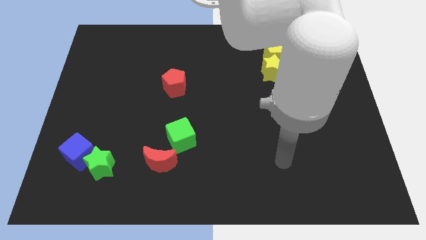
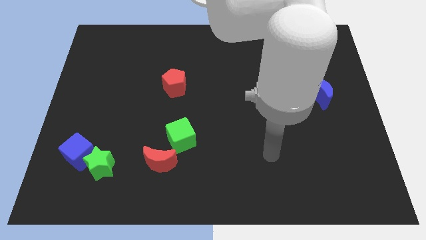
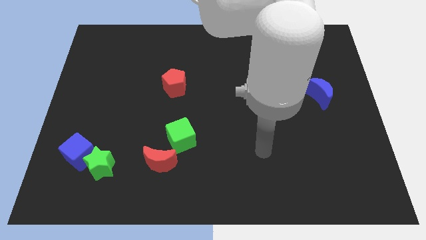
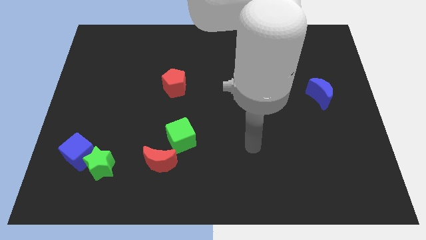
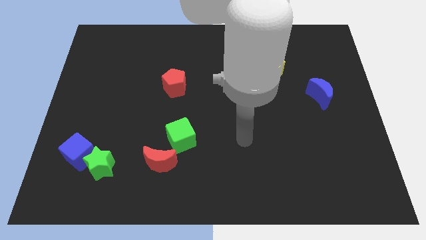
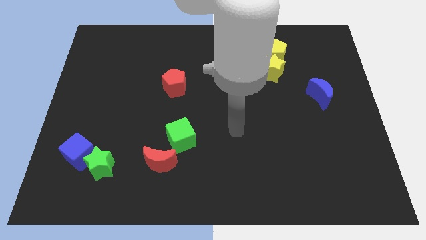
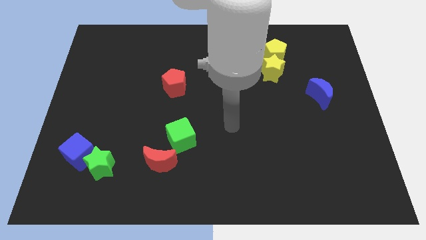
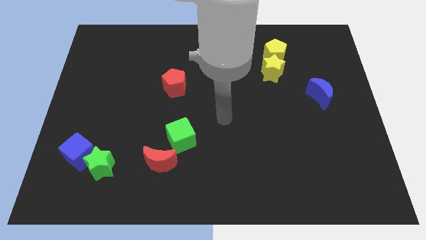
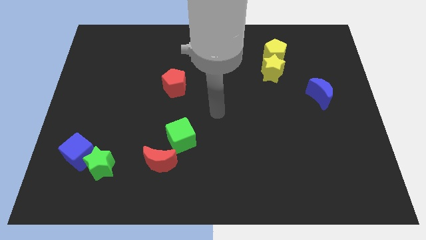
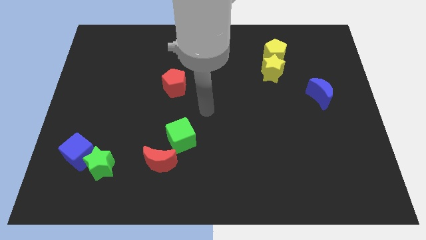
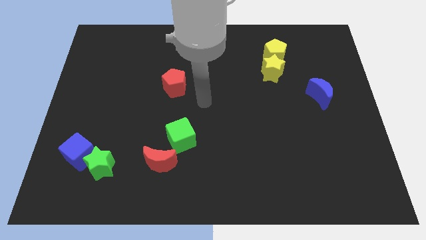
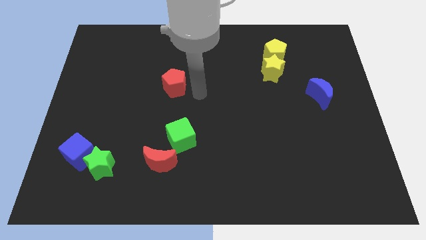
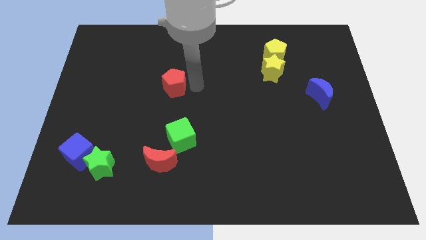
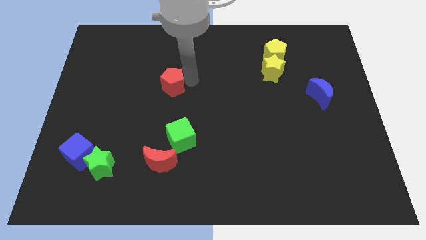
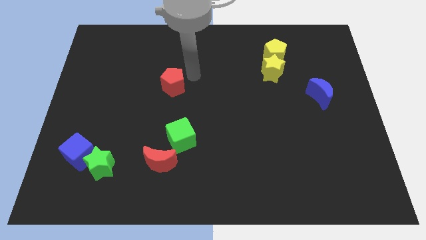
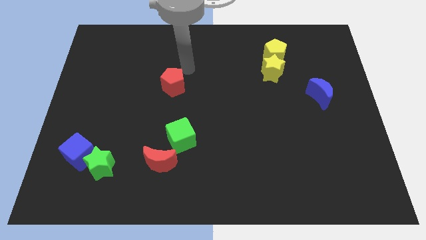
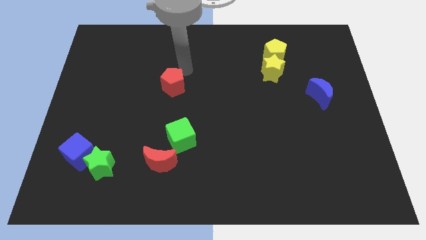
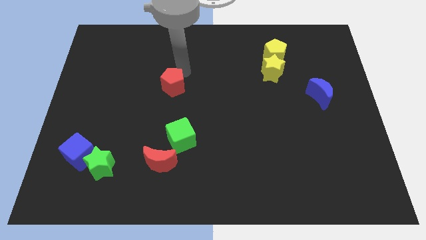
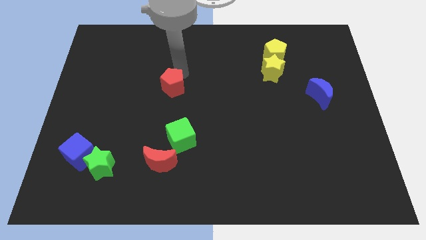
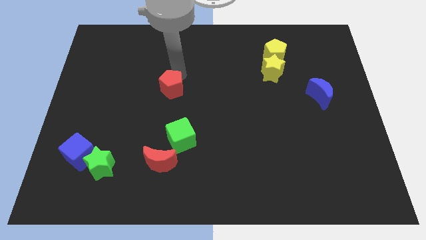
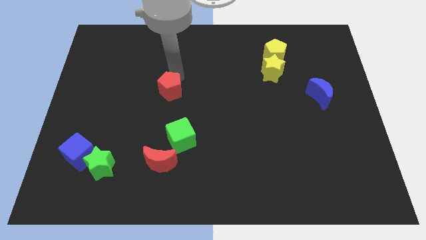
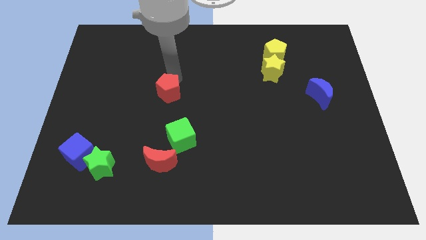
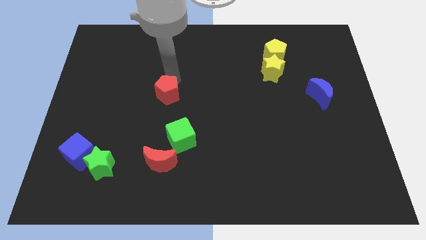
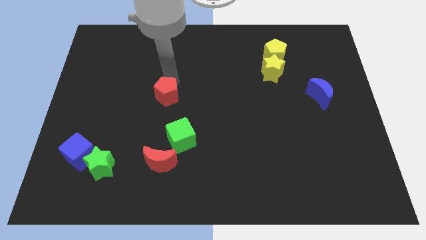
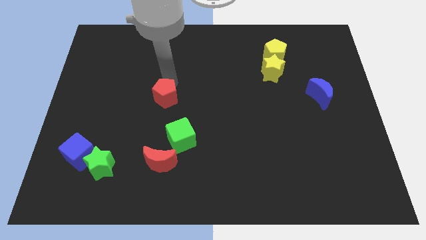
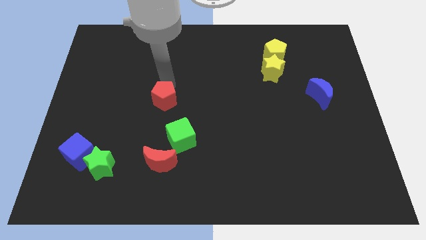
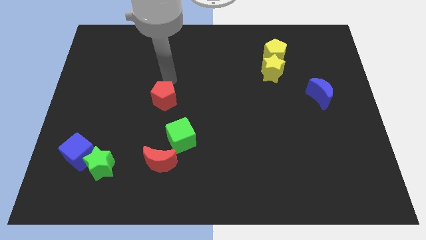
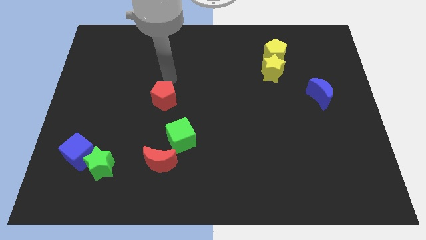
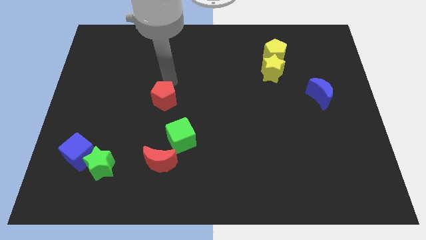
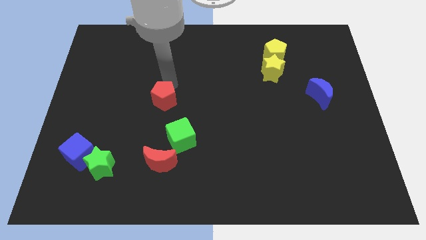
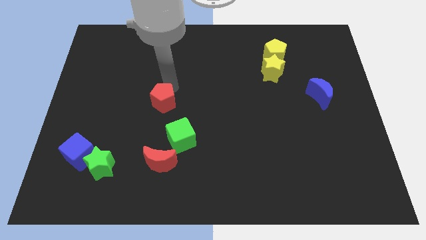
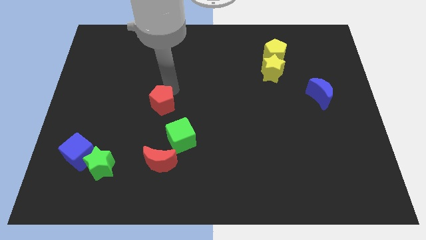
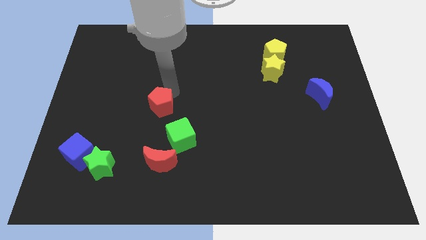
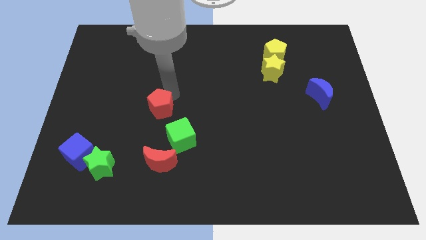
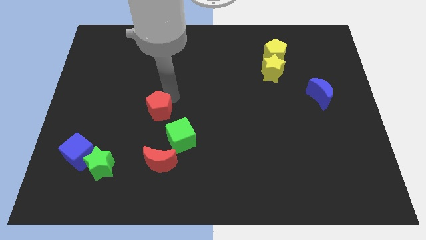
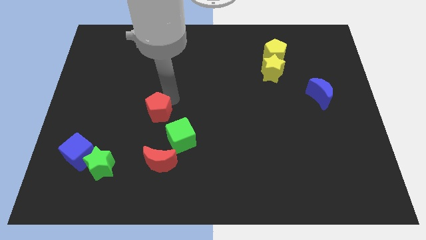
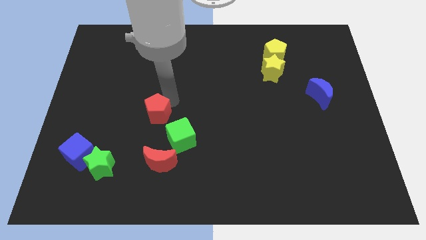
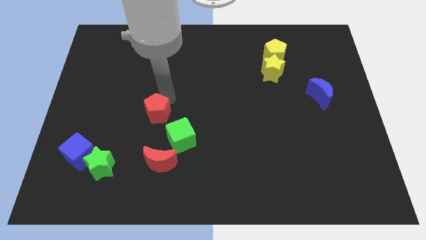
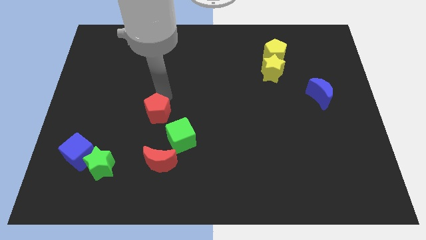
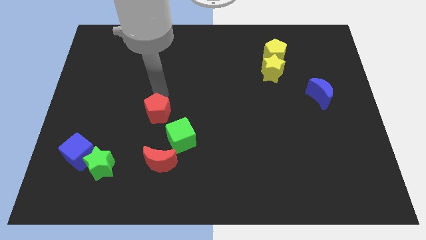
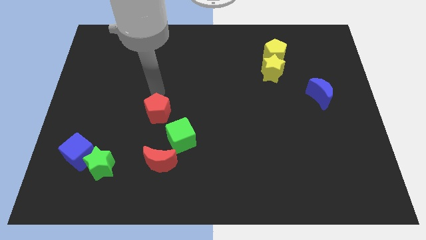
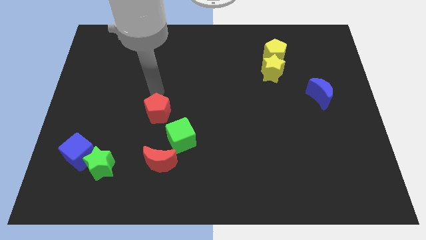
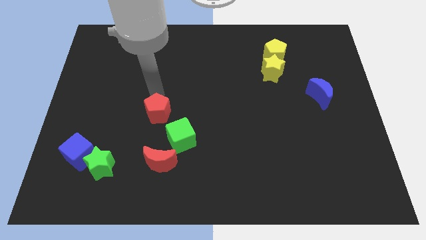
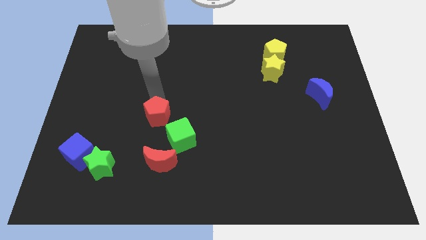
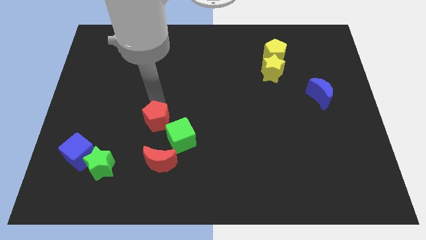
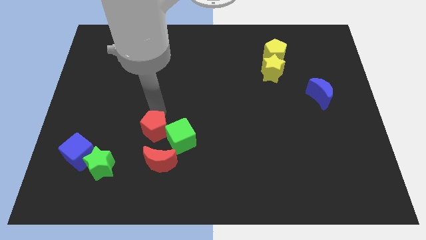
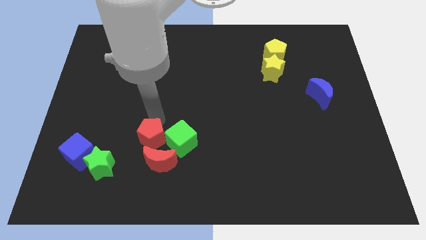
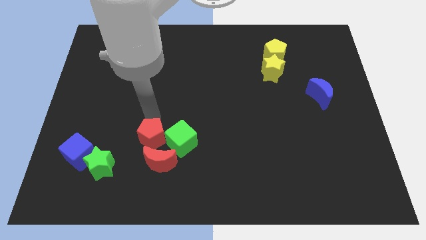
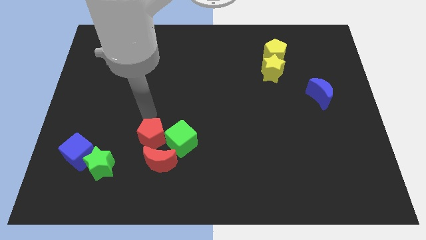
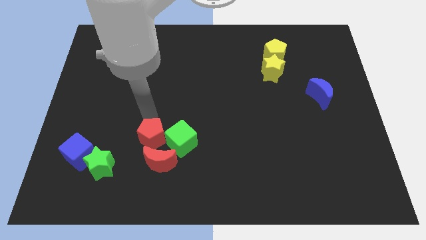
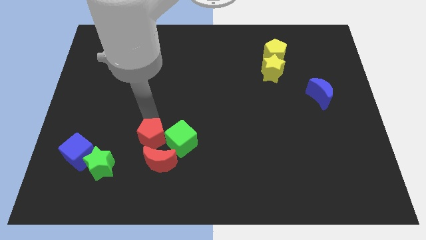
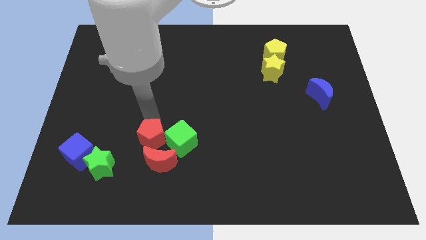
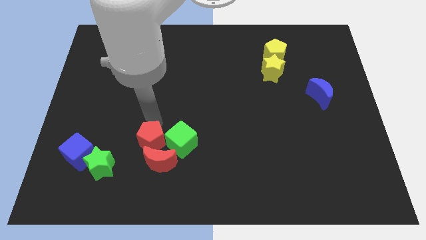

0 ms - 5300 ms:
put the red pentagon towards the red moon

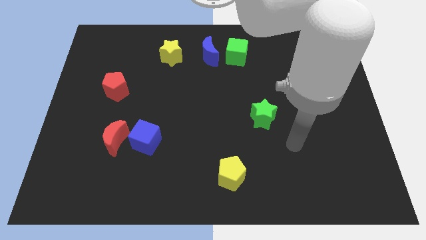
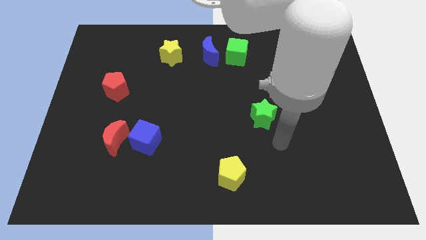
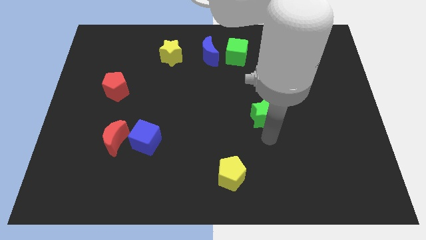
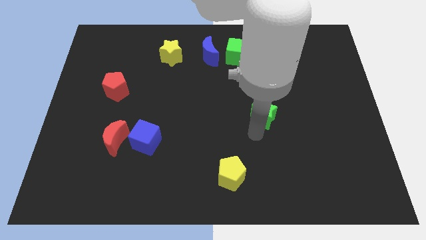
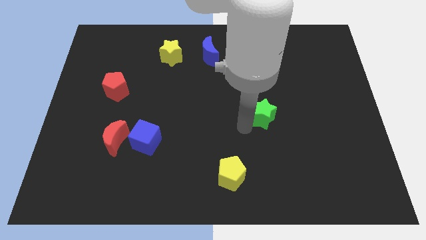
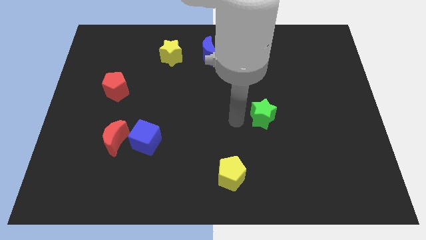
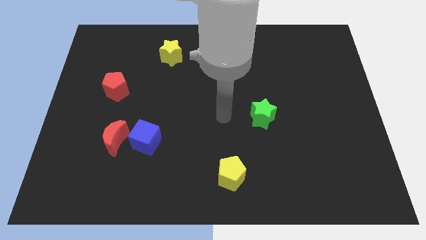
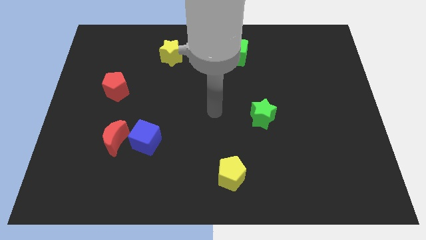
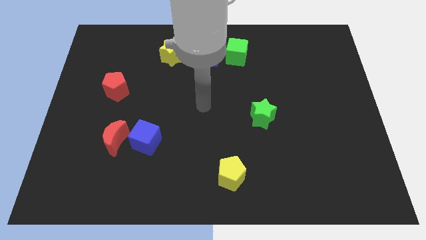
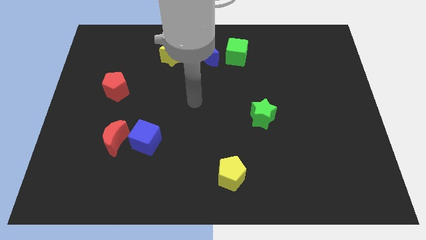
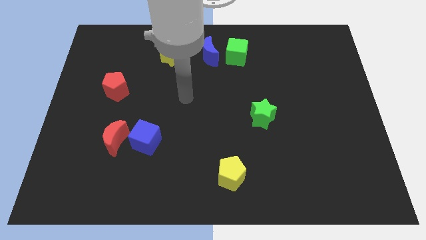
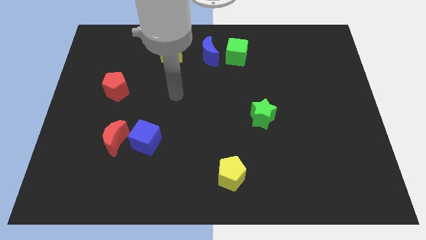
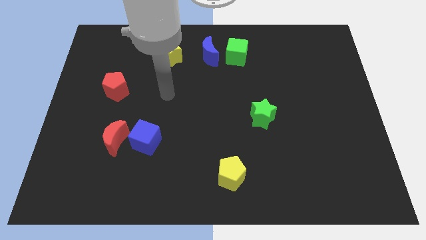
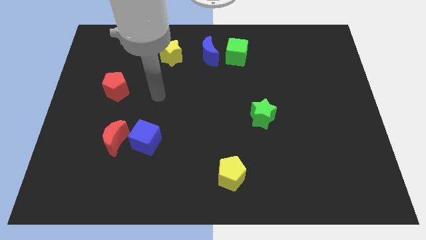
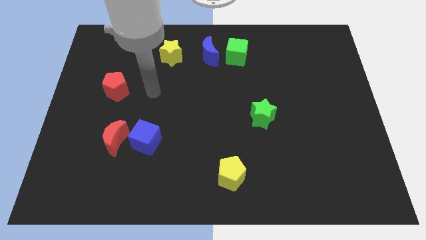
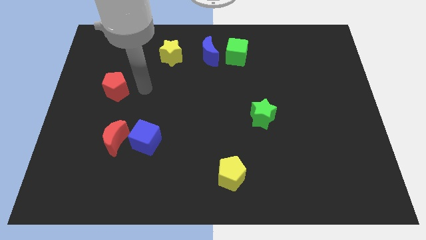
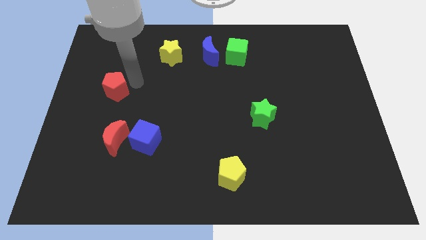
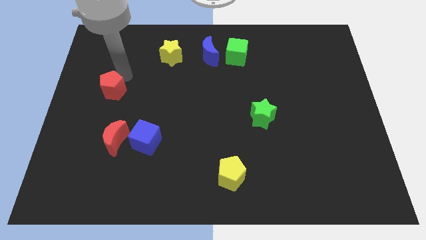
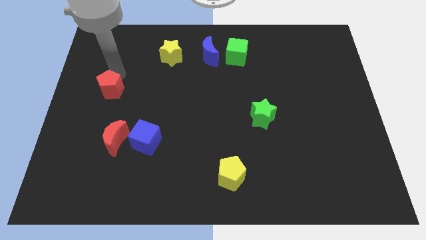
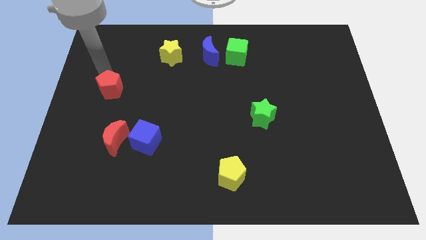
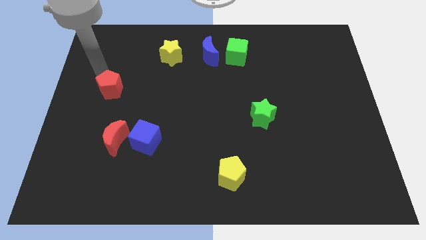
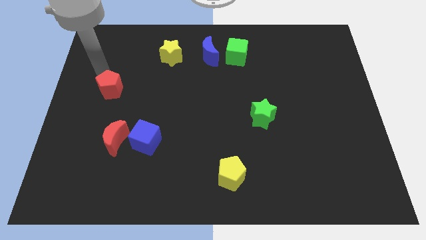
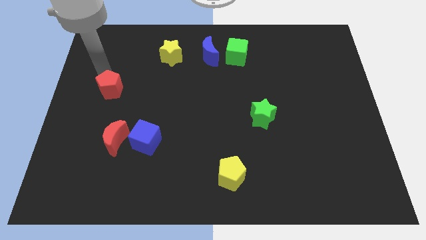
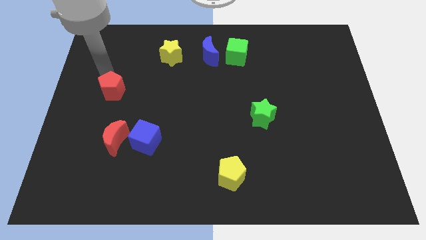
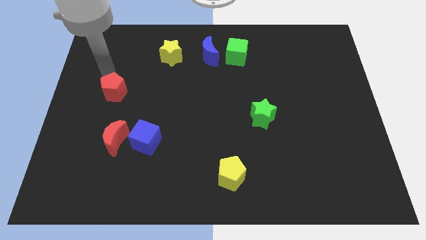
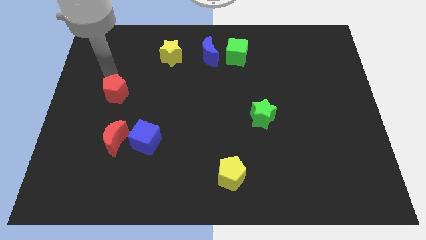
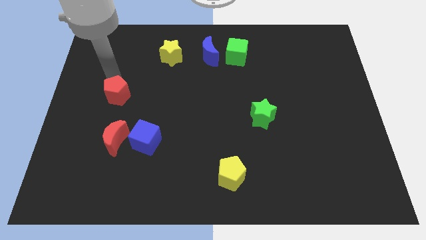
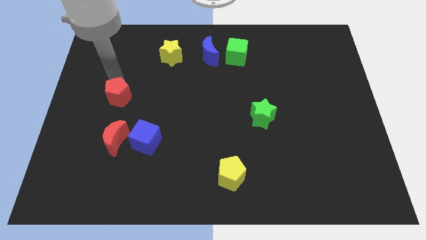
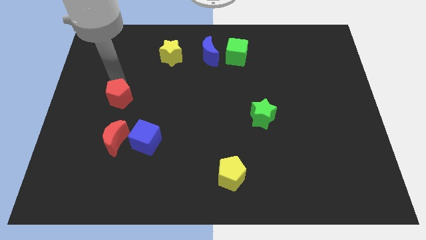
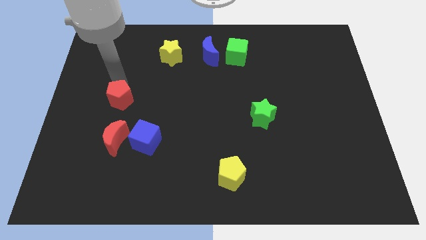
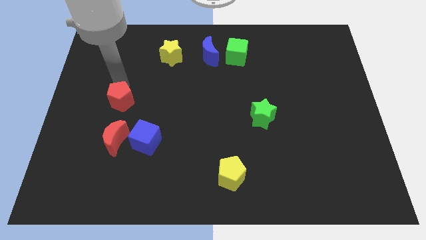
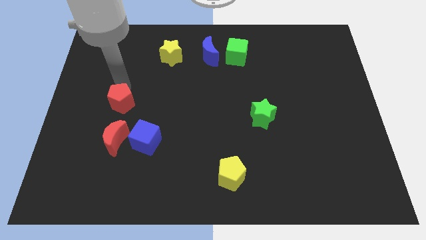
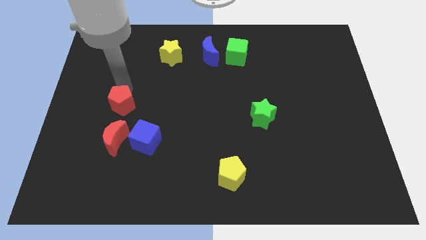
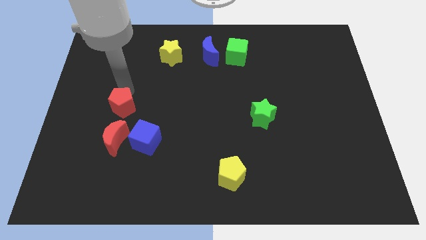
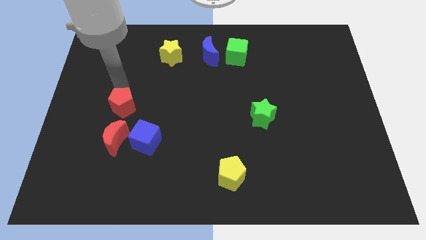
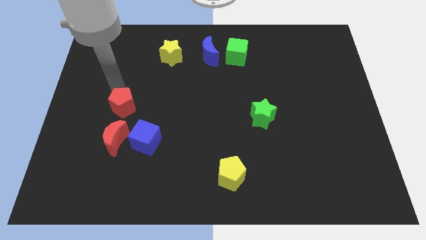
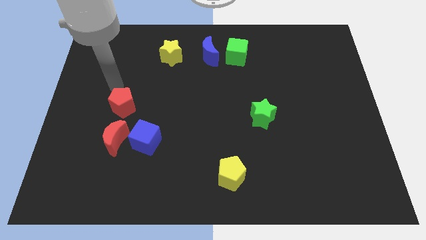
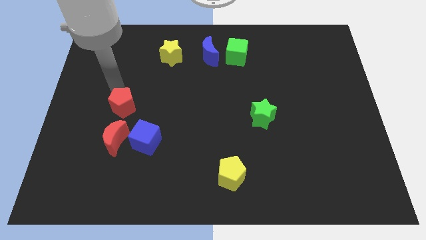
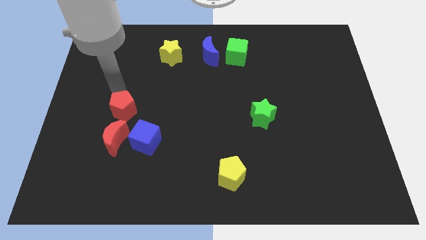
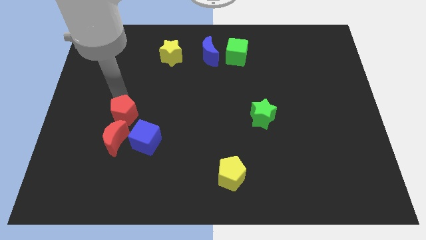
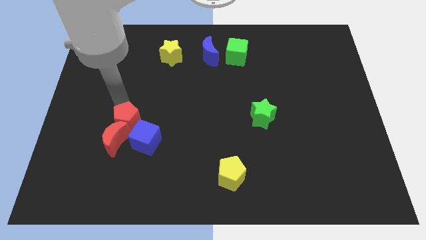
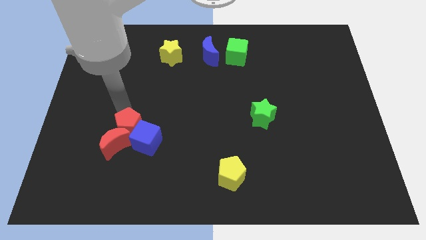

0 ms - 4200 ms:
push the red pentagon close to the blue cube
